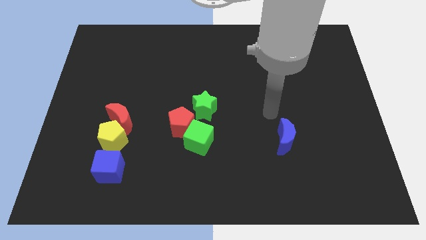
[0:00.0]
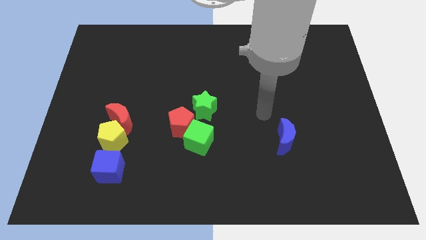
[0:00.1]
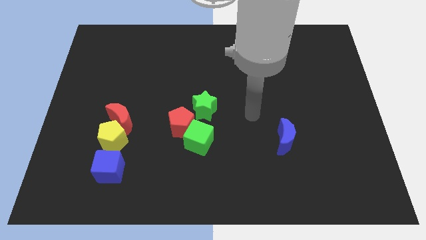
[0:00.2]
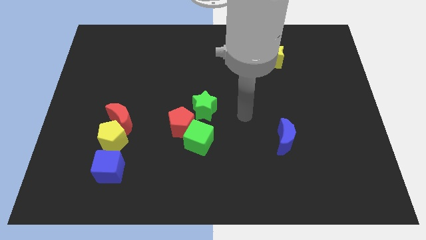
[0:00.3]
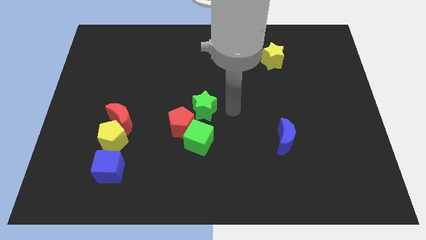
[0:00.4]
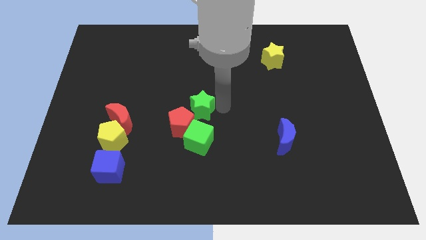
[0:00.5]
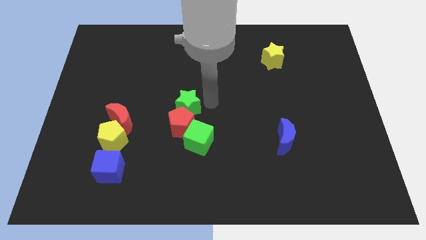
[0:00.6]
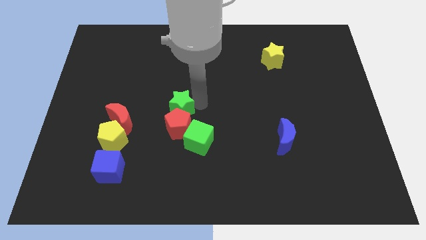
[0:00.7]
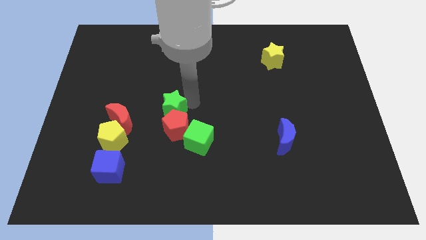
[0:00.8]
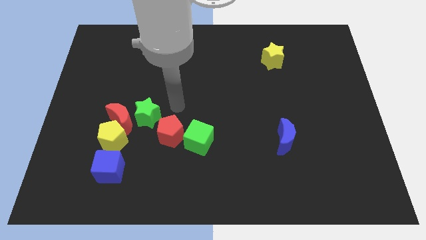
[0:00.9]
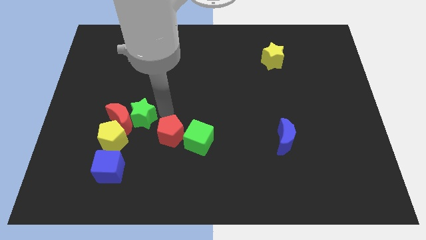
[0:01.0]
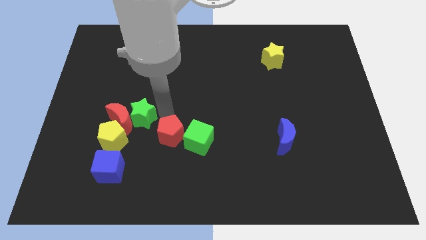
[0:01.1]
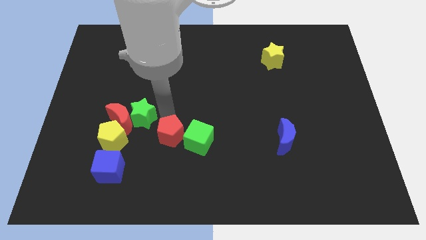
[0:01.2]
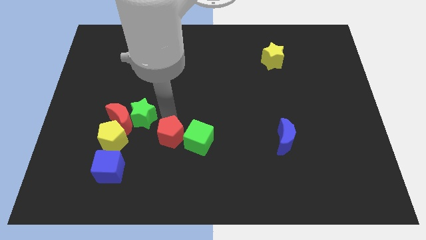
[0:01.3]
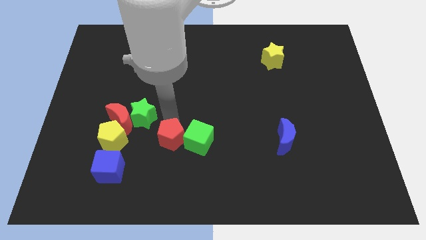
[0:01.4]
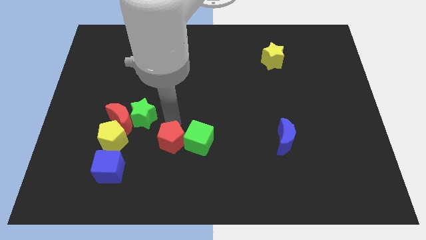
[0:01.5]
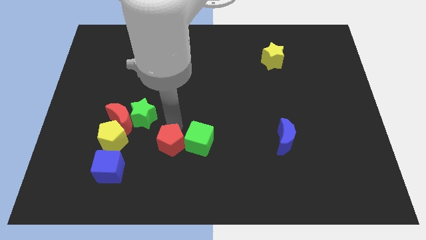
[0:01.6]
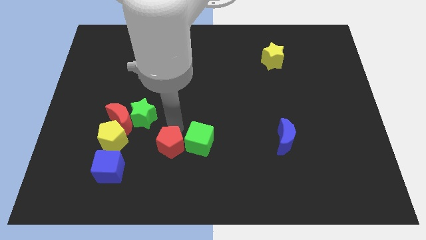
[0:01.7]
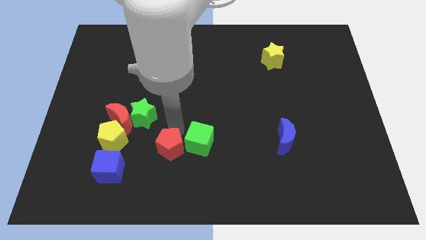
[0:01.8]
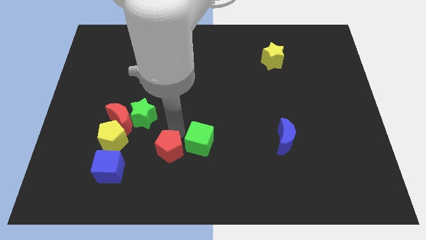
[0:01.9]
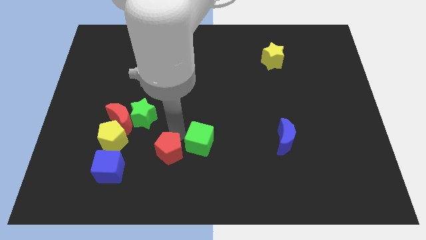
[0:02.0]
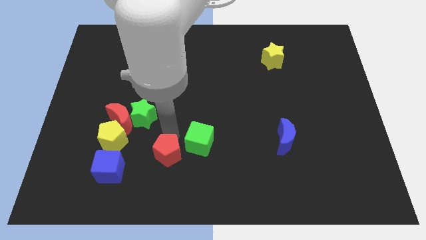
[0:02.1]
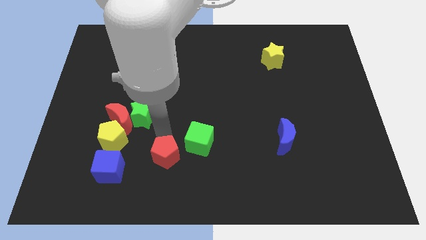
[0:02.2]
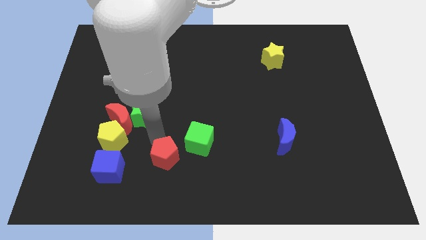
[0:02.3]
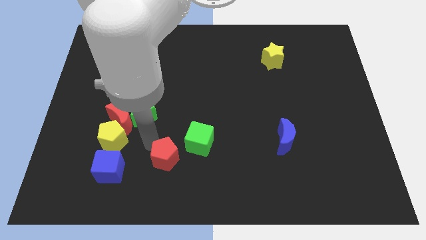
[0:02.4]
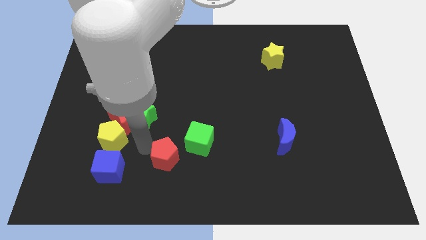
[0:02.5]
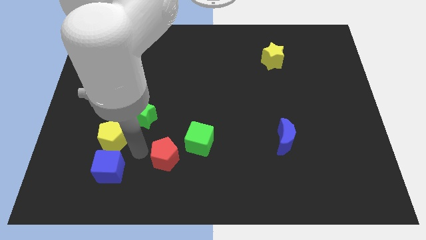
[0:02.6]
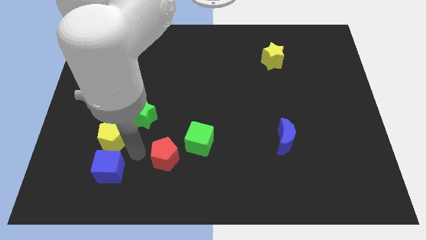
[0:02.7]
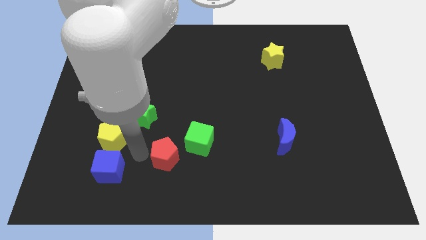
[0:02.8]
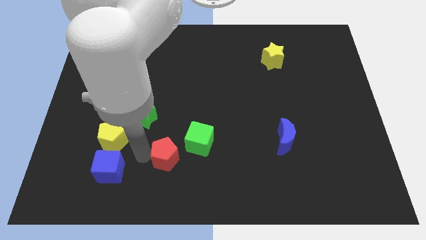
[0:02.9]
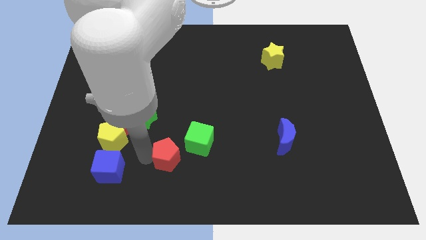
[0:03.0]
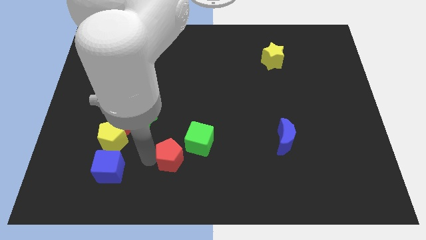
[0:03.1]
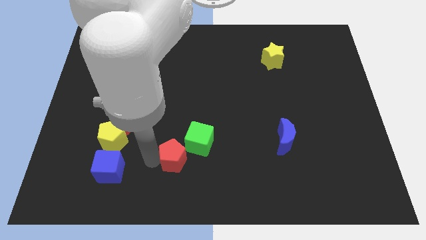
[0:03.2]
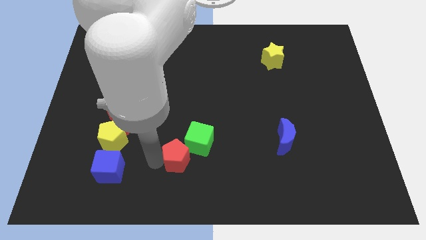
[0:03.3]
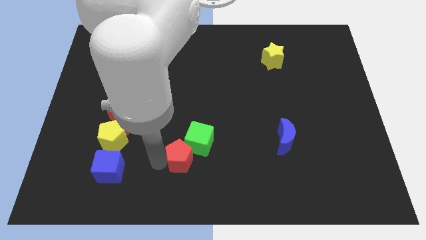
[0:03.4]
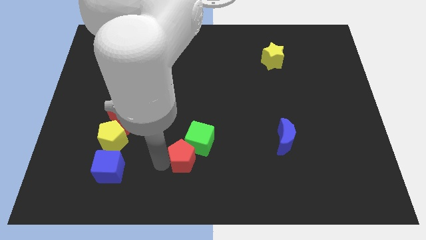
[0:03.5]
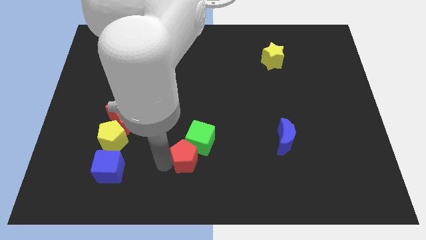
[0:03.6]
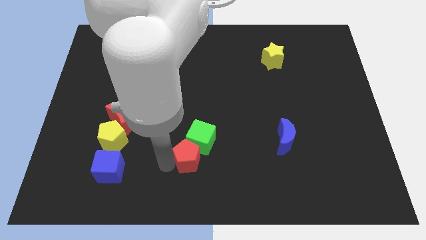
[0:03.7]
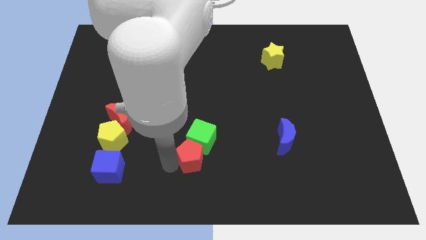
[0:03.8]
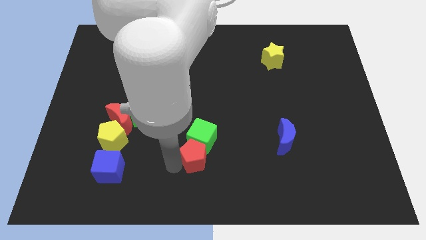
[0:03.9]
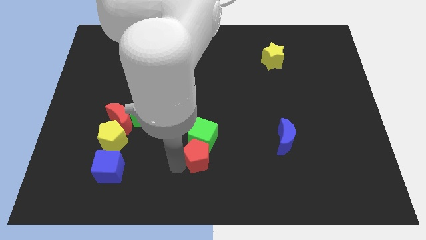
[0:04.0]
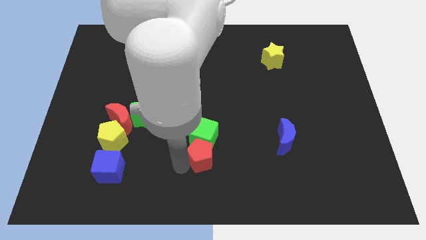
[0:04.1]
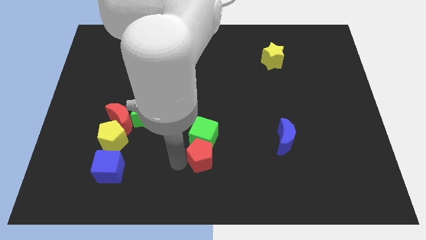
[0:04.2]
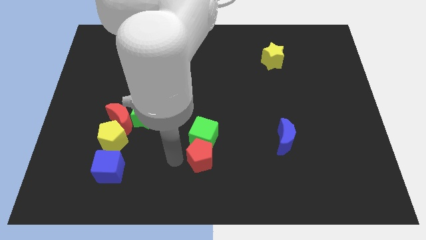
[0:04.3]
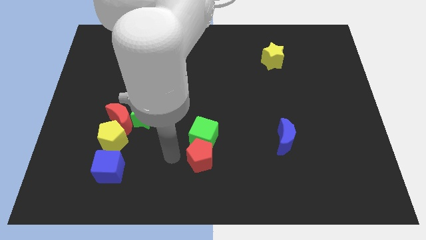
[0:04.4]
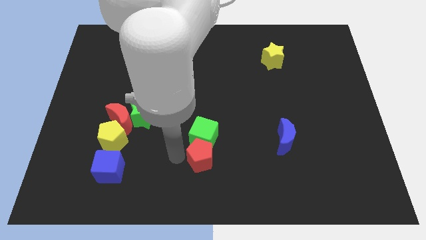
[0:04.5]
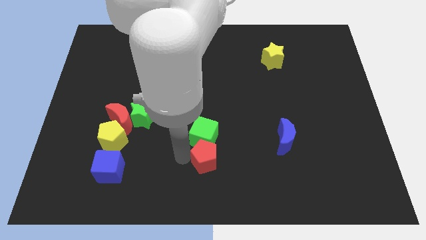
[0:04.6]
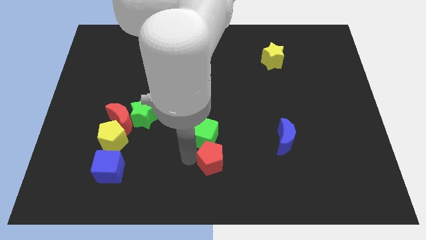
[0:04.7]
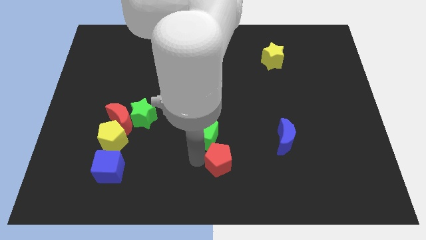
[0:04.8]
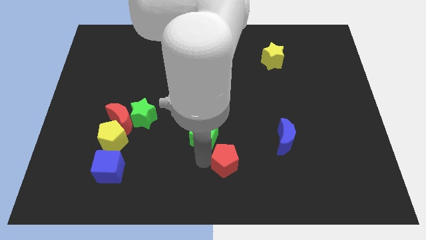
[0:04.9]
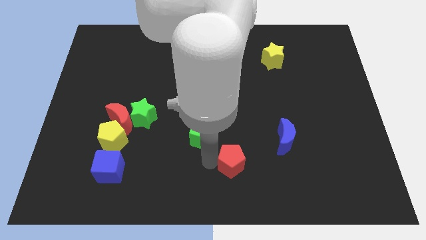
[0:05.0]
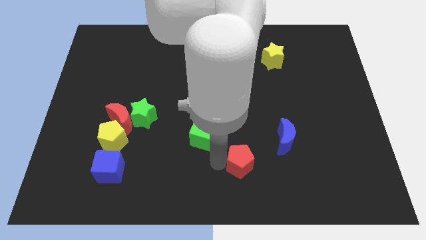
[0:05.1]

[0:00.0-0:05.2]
put the red pentagon to the bottom left of the blue moon

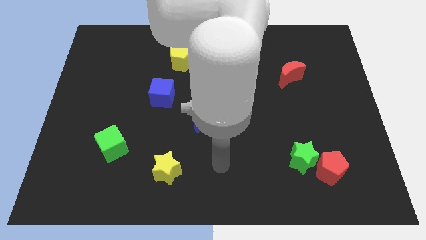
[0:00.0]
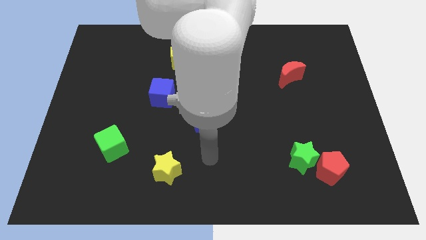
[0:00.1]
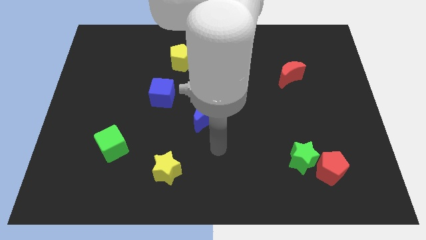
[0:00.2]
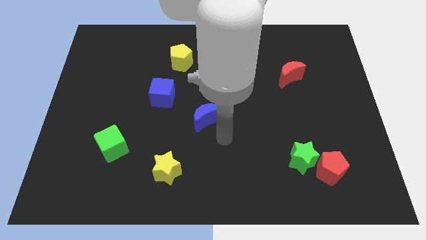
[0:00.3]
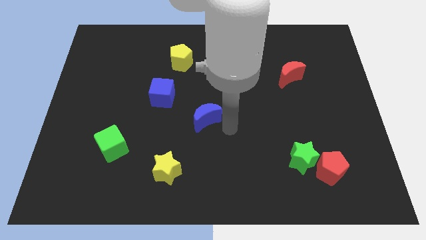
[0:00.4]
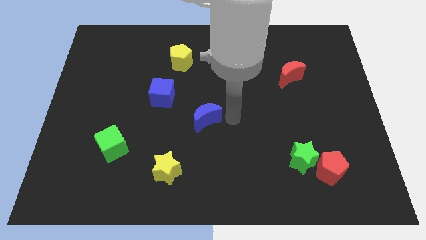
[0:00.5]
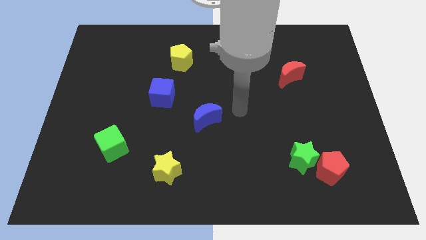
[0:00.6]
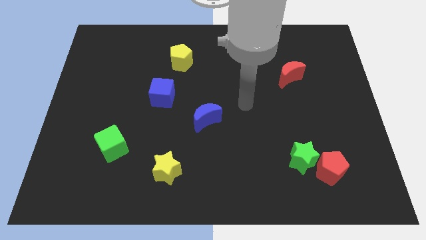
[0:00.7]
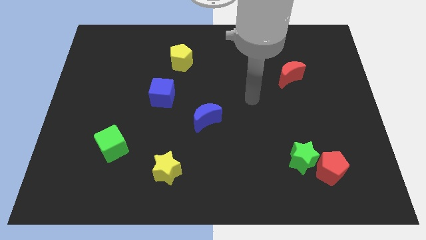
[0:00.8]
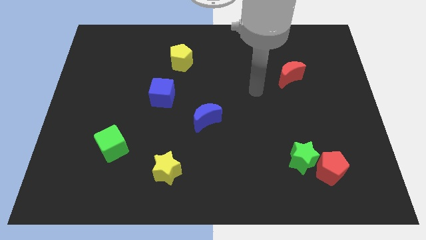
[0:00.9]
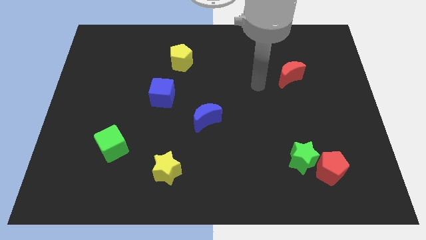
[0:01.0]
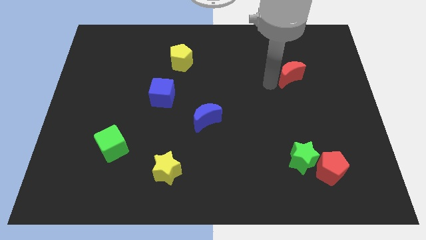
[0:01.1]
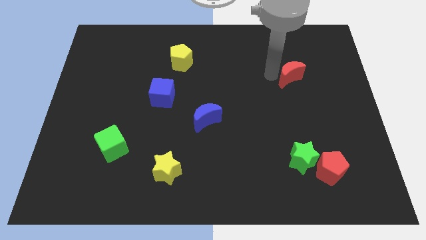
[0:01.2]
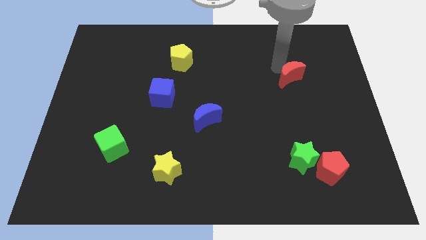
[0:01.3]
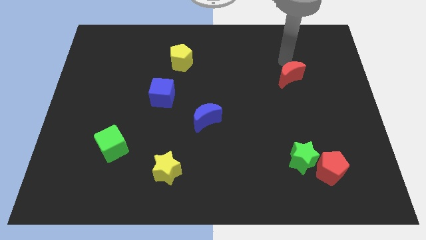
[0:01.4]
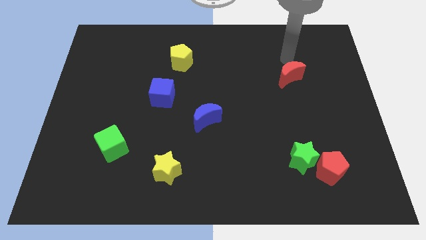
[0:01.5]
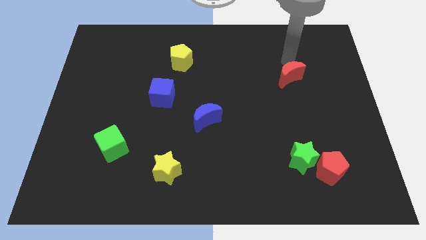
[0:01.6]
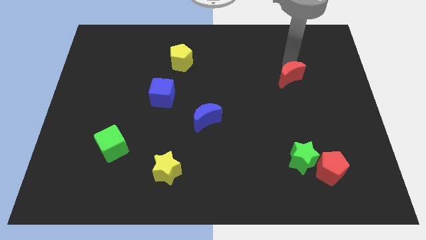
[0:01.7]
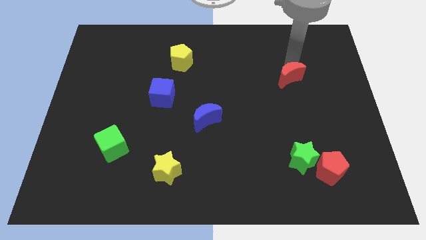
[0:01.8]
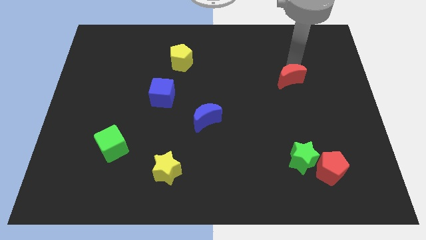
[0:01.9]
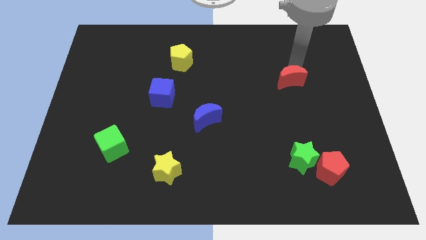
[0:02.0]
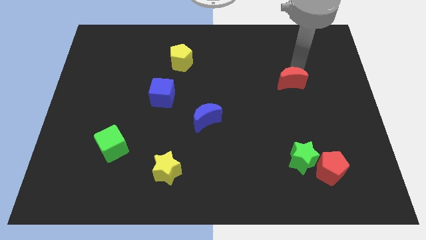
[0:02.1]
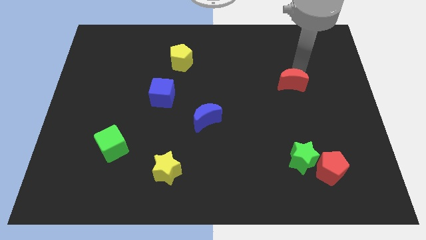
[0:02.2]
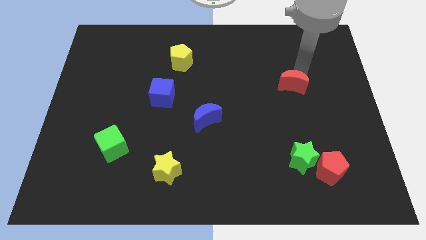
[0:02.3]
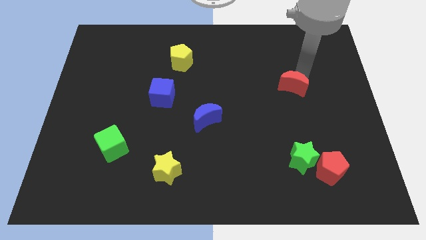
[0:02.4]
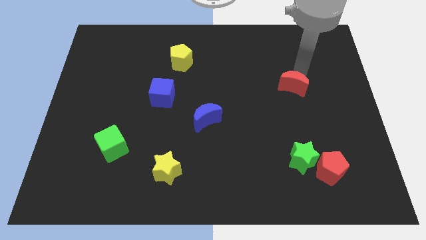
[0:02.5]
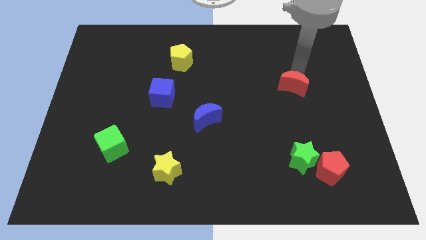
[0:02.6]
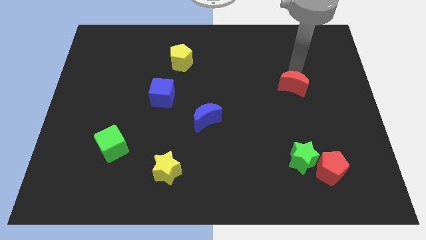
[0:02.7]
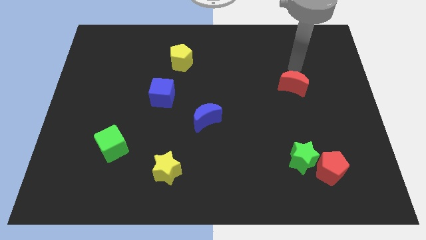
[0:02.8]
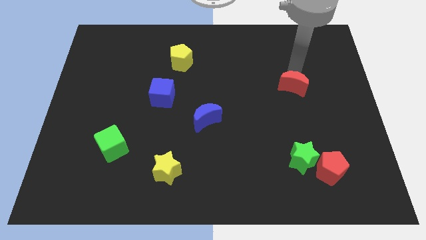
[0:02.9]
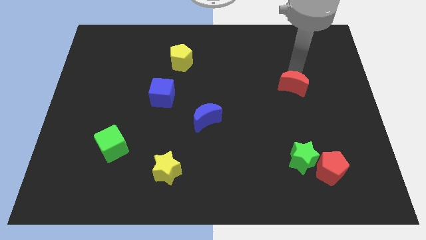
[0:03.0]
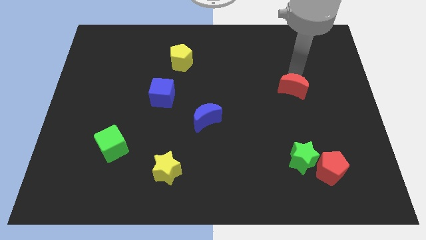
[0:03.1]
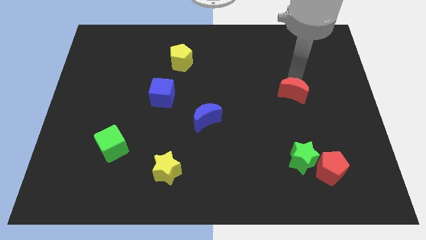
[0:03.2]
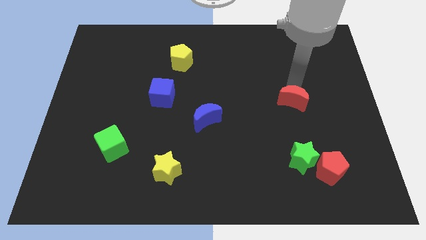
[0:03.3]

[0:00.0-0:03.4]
push the red moon to the top side of the green star
